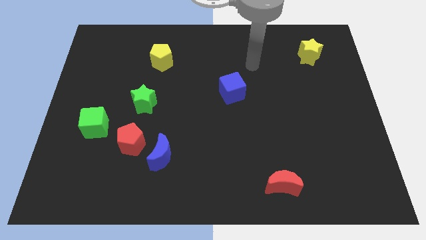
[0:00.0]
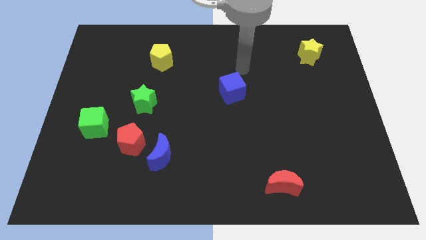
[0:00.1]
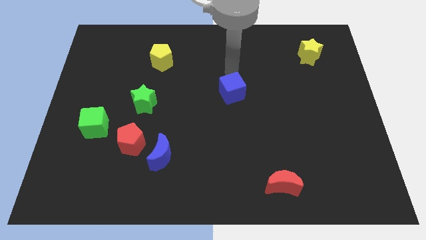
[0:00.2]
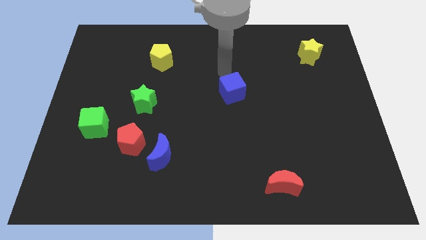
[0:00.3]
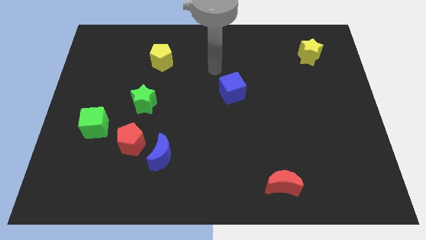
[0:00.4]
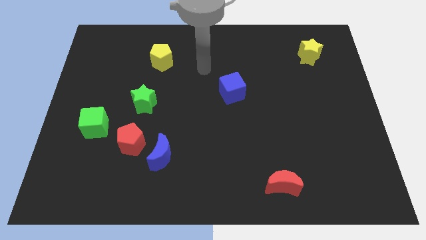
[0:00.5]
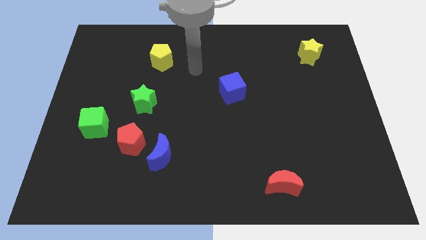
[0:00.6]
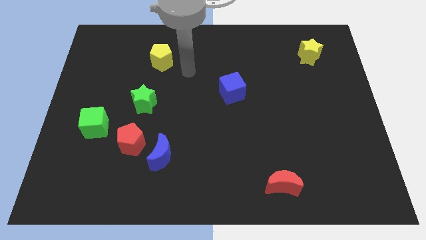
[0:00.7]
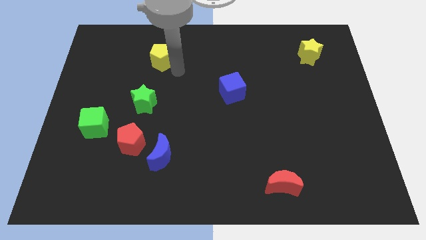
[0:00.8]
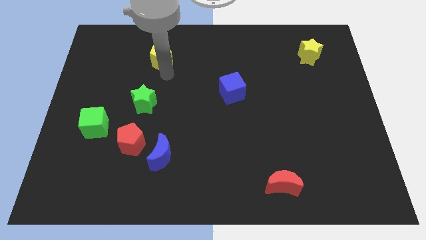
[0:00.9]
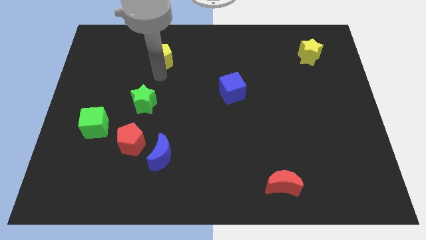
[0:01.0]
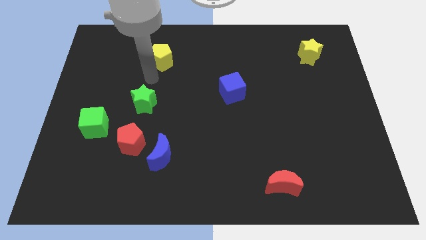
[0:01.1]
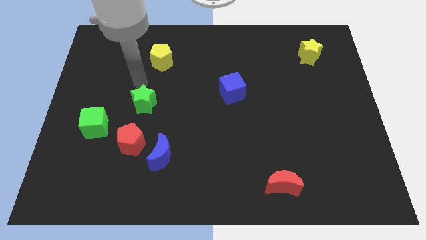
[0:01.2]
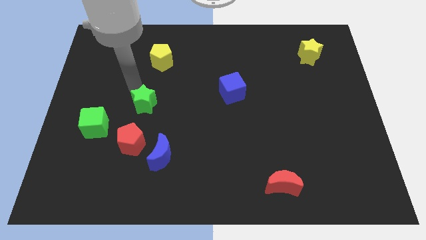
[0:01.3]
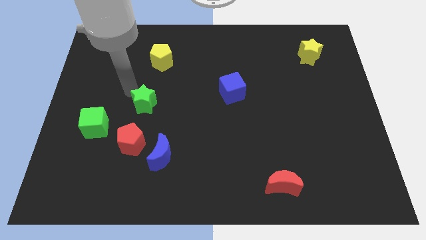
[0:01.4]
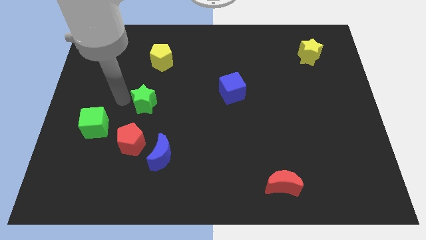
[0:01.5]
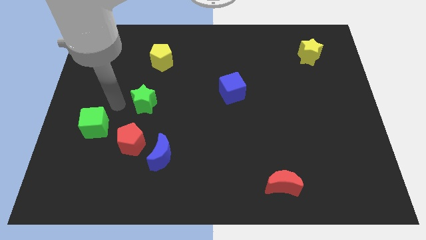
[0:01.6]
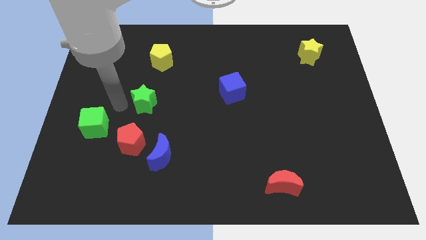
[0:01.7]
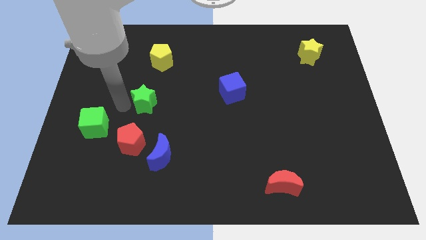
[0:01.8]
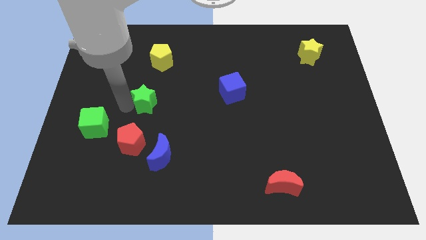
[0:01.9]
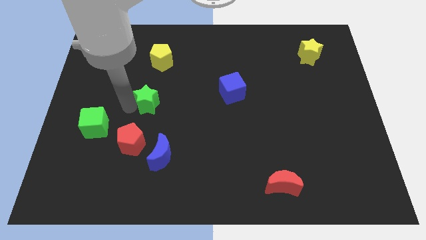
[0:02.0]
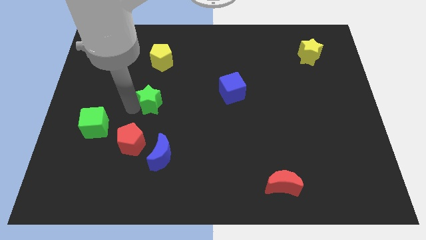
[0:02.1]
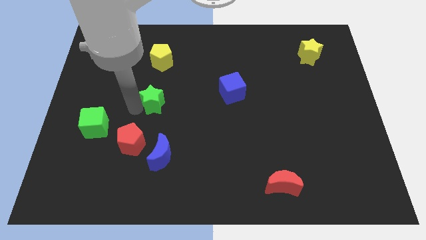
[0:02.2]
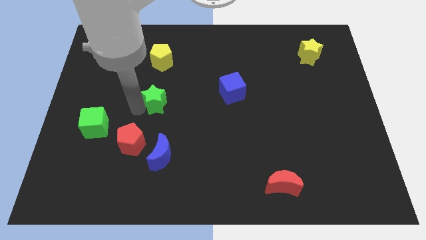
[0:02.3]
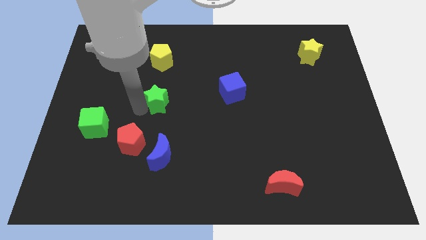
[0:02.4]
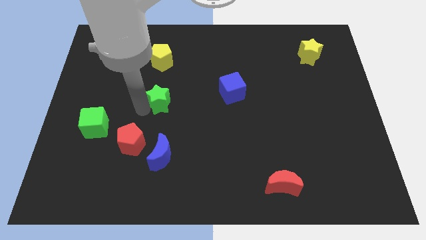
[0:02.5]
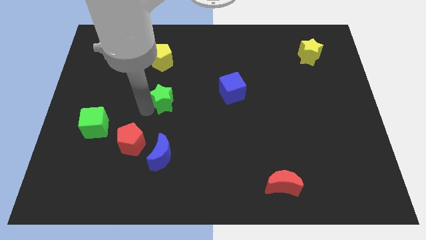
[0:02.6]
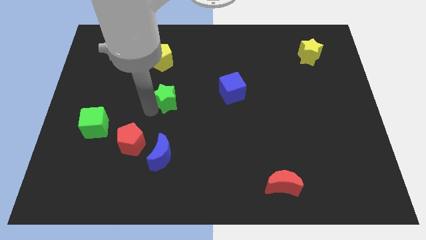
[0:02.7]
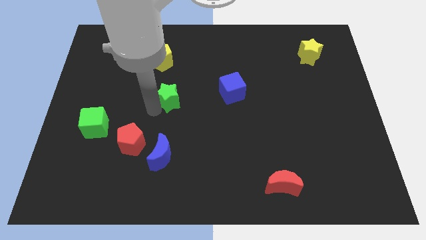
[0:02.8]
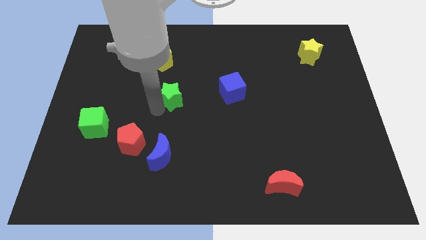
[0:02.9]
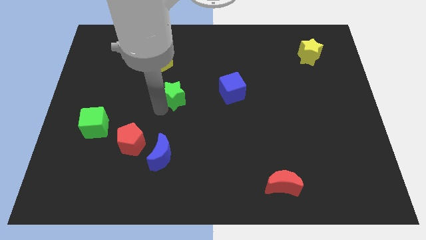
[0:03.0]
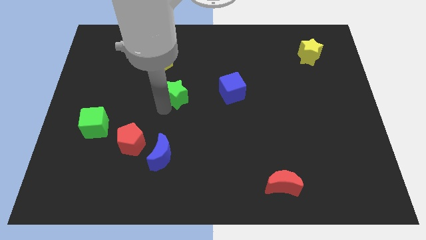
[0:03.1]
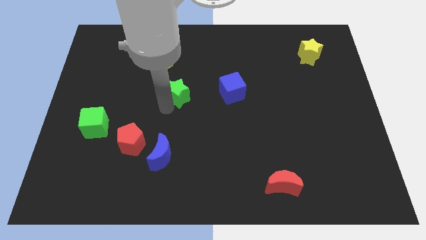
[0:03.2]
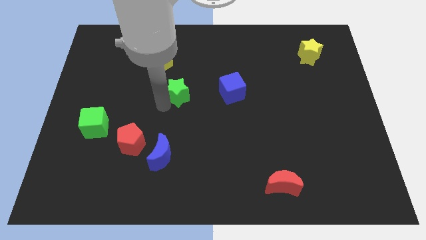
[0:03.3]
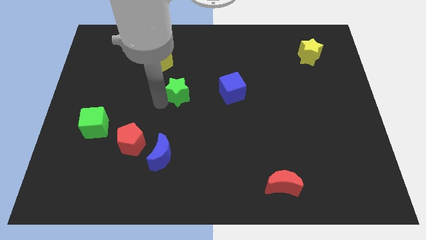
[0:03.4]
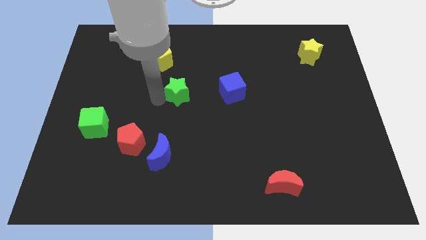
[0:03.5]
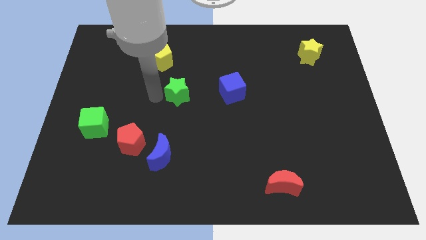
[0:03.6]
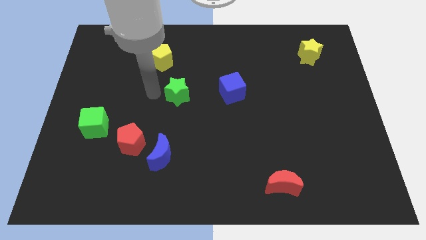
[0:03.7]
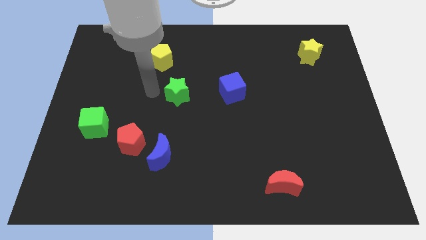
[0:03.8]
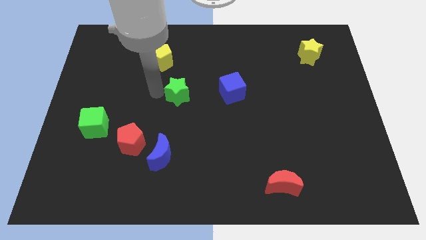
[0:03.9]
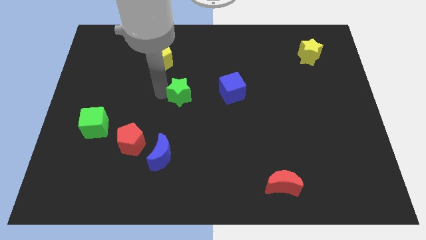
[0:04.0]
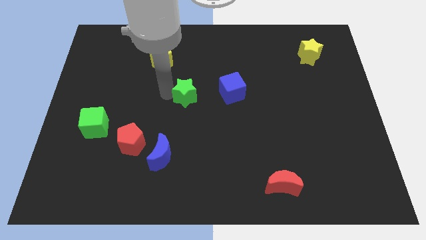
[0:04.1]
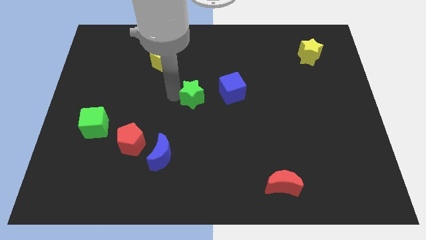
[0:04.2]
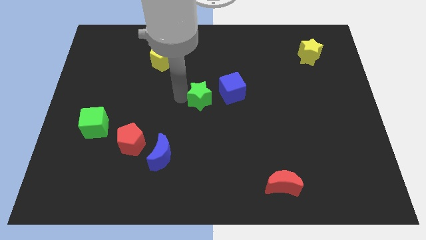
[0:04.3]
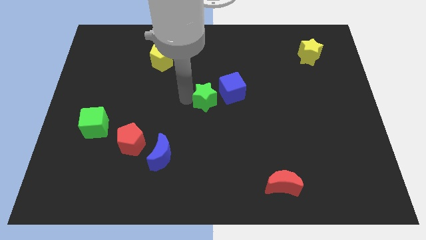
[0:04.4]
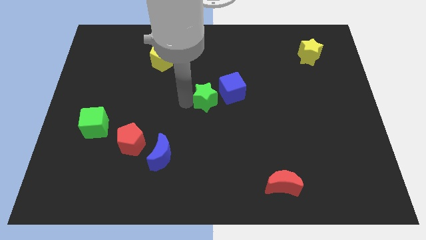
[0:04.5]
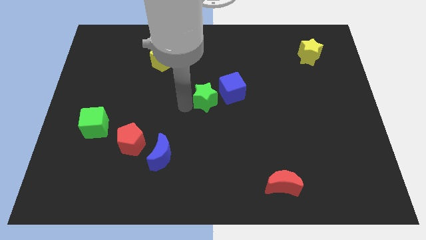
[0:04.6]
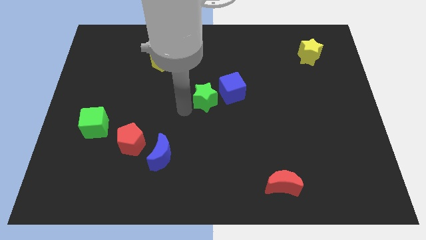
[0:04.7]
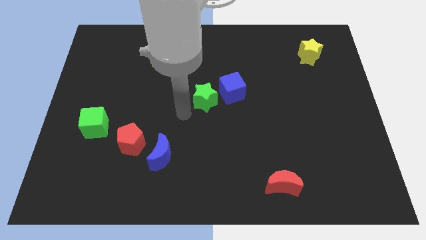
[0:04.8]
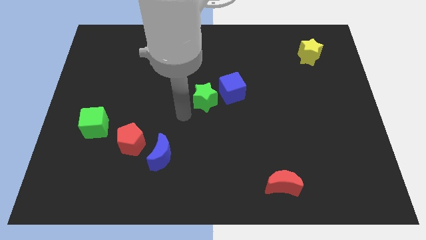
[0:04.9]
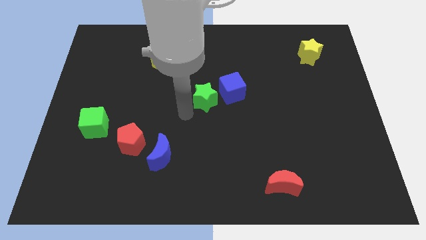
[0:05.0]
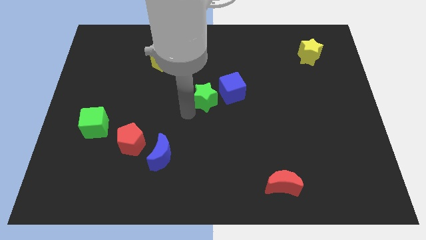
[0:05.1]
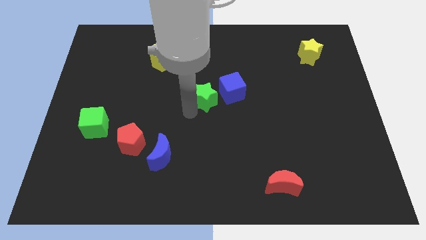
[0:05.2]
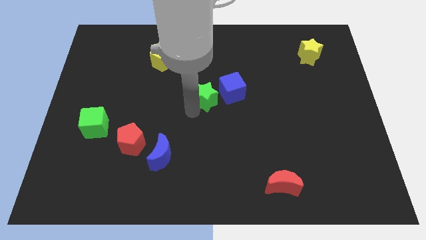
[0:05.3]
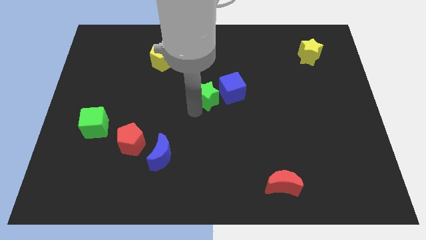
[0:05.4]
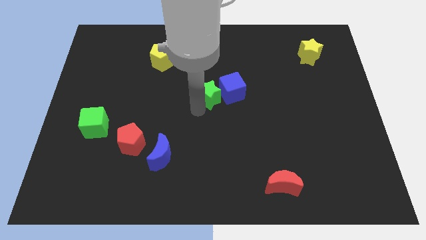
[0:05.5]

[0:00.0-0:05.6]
put the green star towards the blue cube

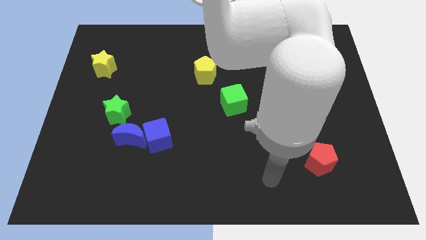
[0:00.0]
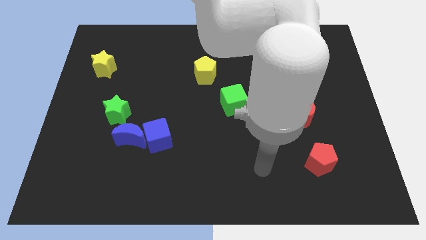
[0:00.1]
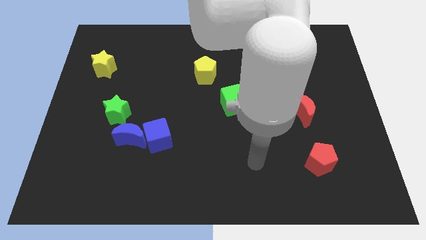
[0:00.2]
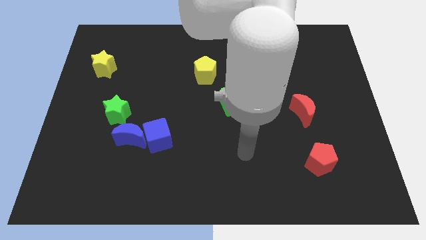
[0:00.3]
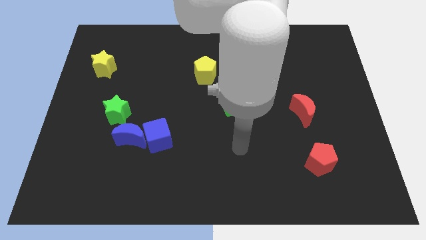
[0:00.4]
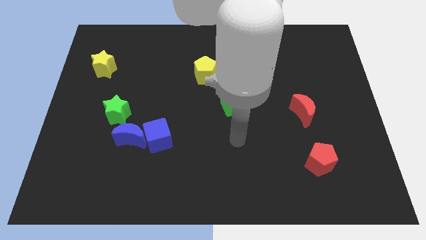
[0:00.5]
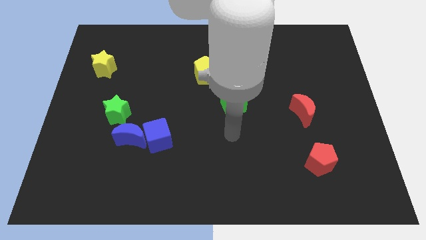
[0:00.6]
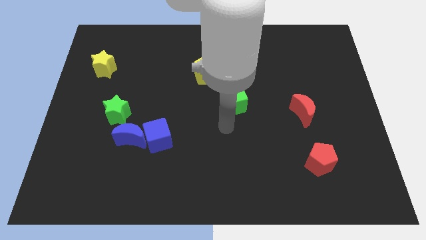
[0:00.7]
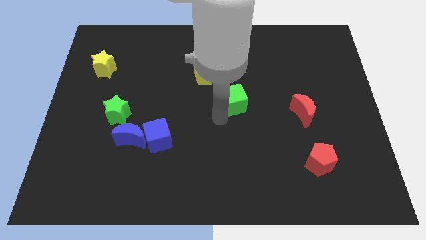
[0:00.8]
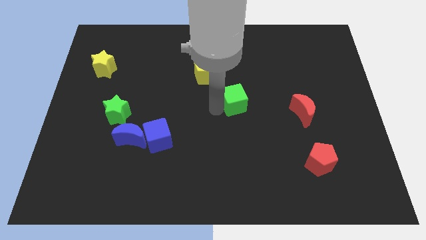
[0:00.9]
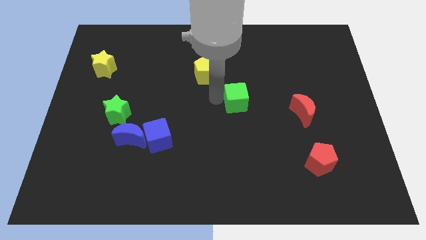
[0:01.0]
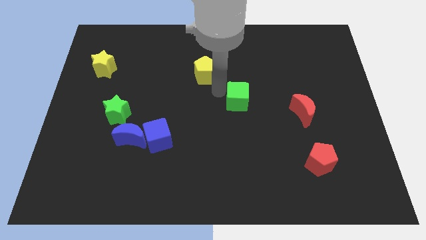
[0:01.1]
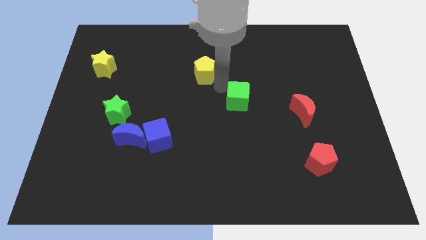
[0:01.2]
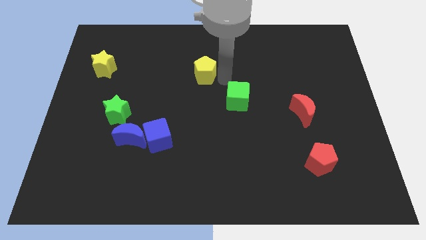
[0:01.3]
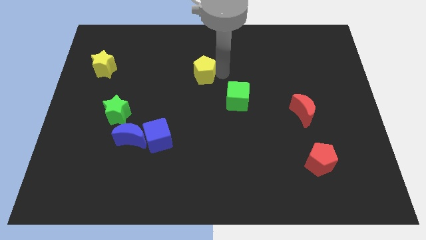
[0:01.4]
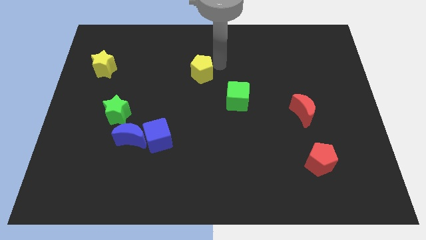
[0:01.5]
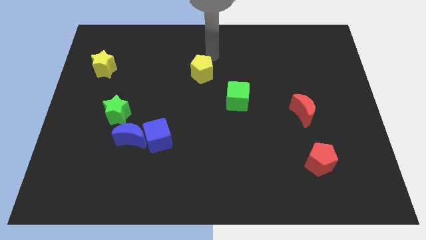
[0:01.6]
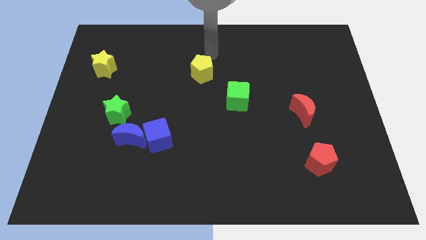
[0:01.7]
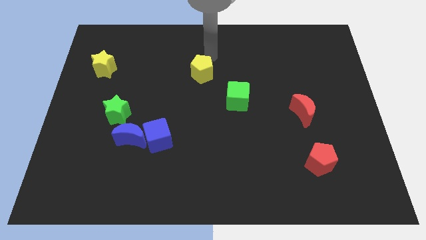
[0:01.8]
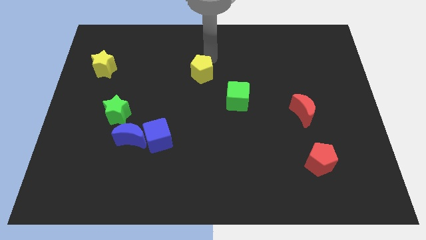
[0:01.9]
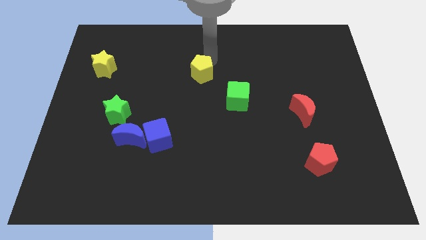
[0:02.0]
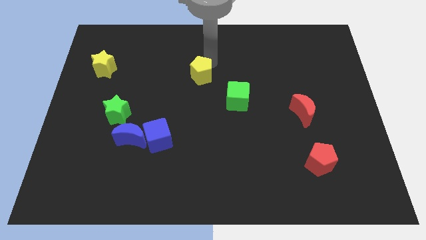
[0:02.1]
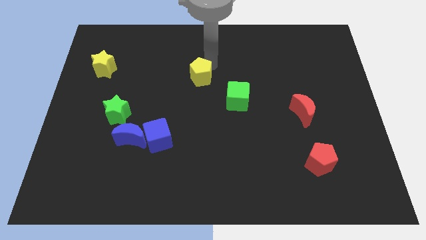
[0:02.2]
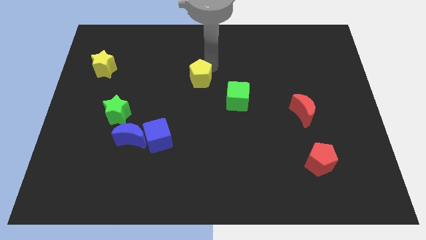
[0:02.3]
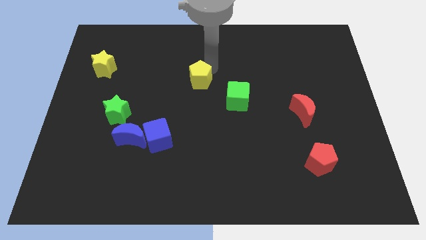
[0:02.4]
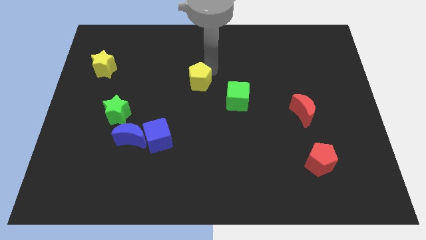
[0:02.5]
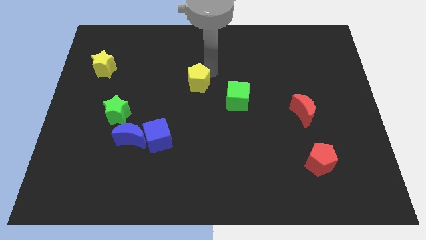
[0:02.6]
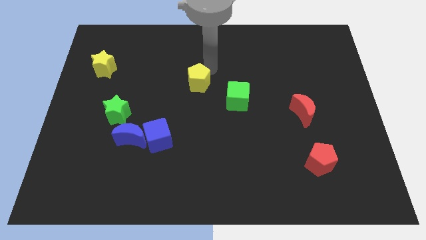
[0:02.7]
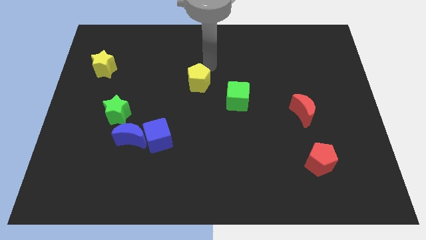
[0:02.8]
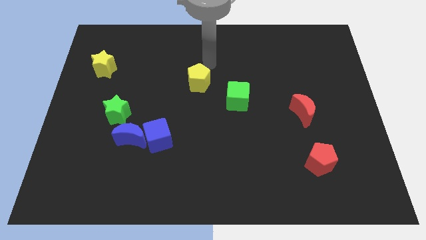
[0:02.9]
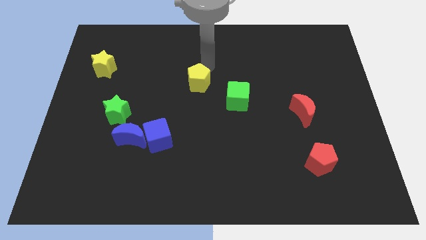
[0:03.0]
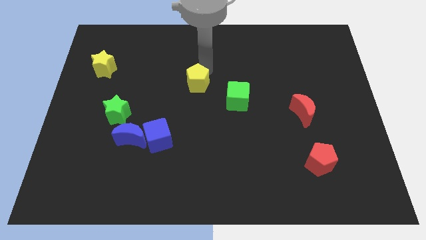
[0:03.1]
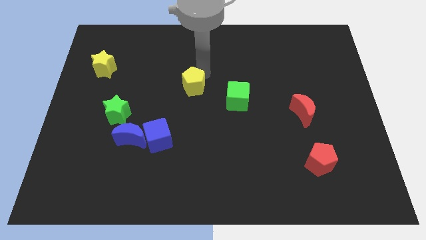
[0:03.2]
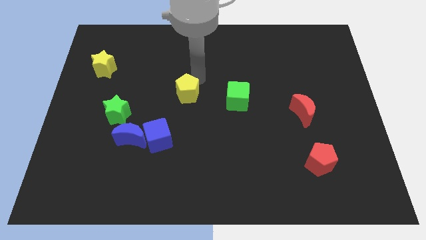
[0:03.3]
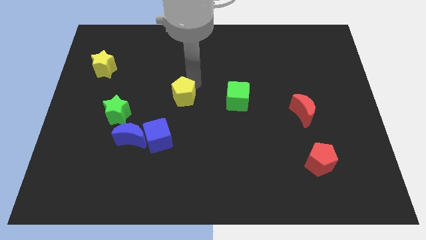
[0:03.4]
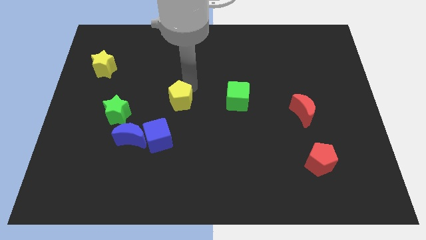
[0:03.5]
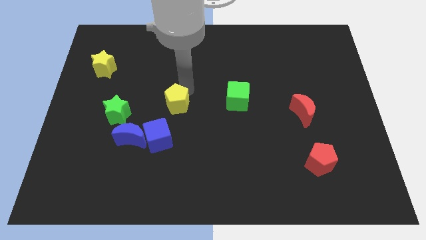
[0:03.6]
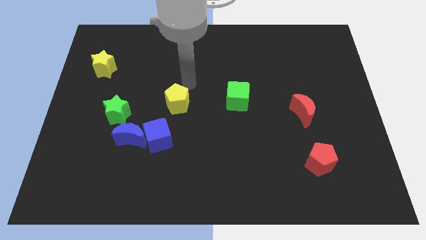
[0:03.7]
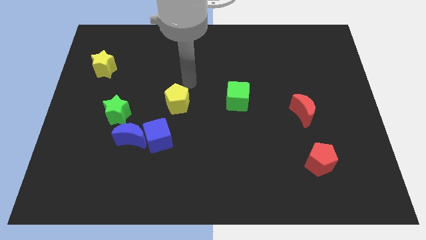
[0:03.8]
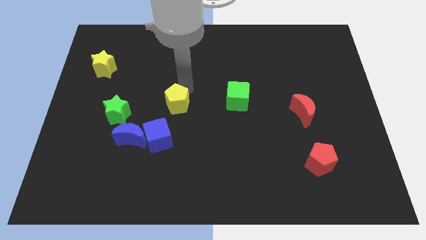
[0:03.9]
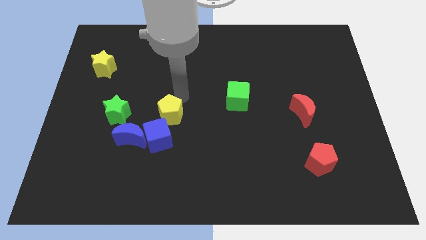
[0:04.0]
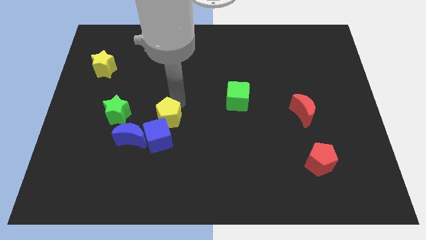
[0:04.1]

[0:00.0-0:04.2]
push the yellow pentagon to the blue cube
